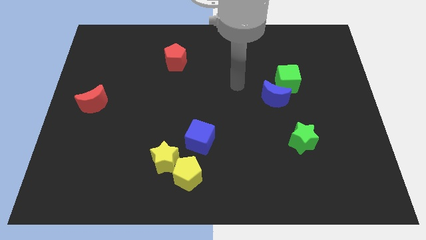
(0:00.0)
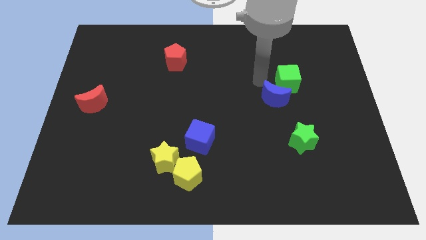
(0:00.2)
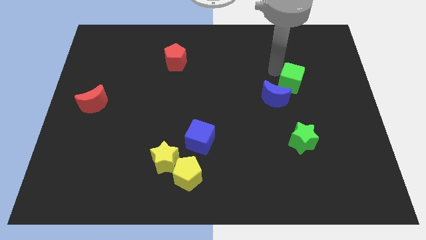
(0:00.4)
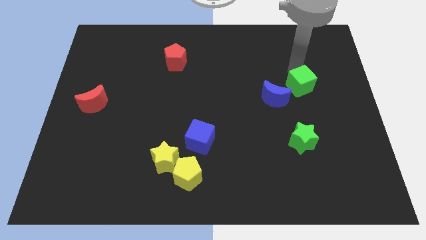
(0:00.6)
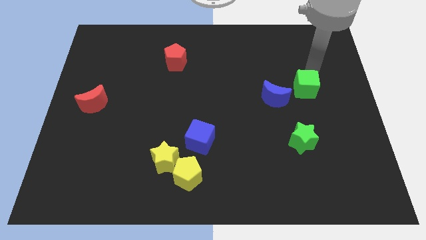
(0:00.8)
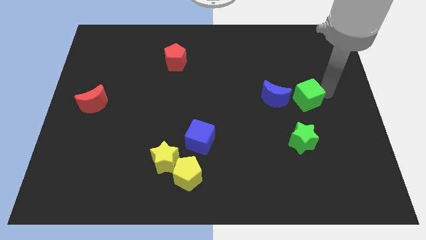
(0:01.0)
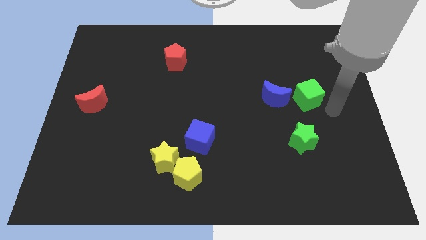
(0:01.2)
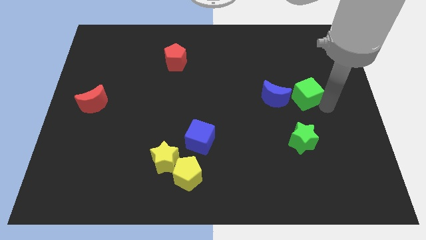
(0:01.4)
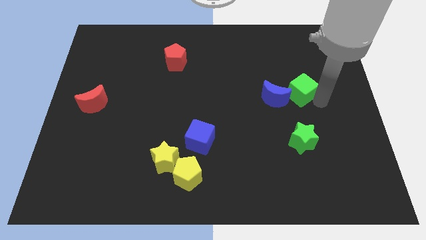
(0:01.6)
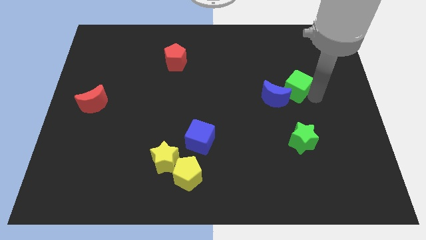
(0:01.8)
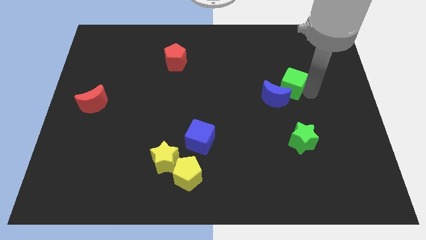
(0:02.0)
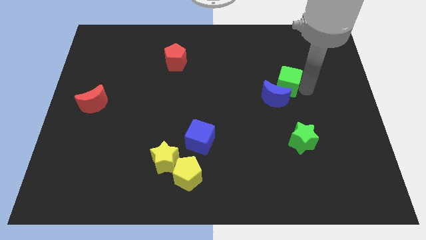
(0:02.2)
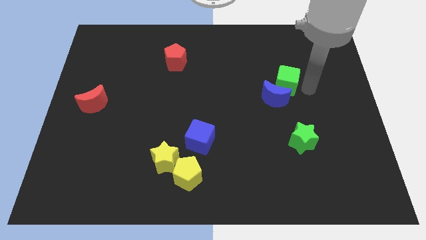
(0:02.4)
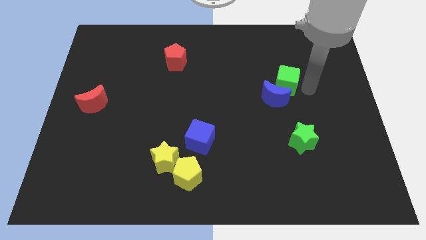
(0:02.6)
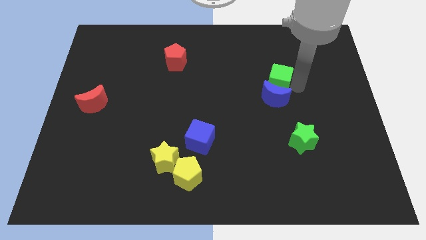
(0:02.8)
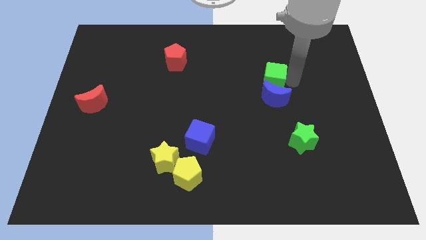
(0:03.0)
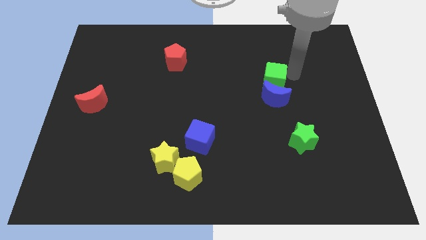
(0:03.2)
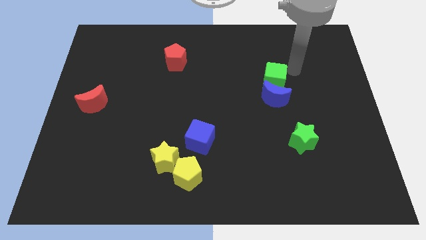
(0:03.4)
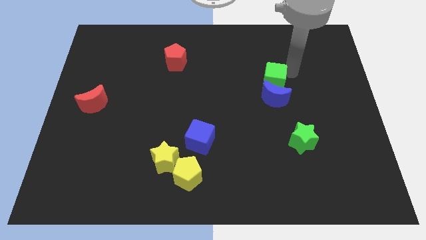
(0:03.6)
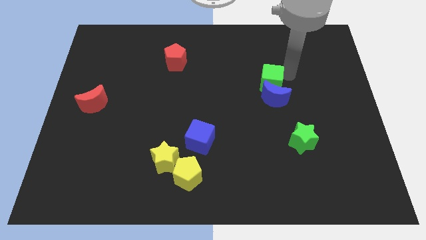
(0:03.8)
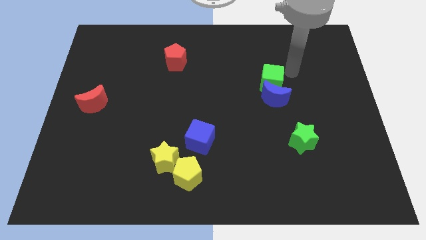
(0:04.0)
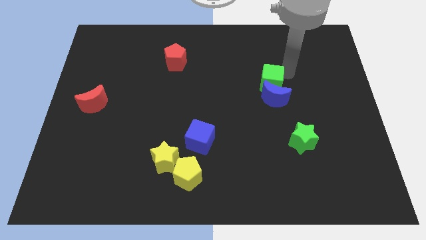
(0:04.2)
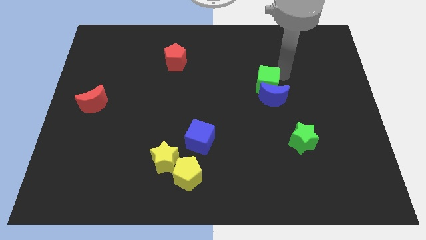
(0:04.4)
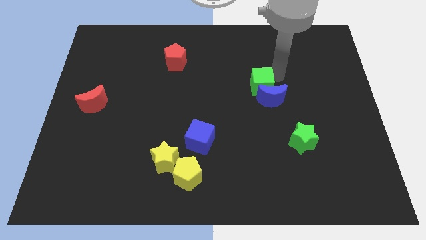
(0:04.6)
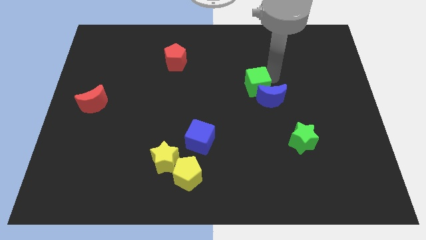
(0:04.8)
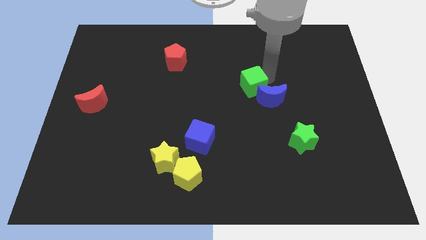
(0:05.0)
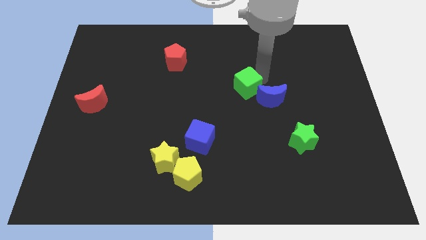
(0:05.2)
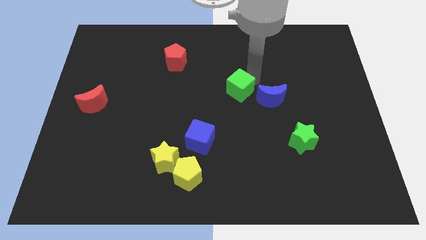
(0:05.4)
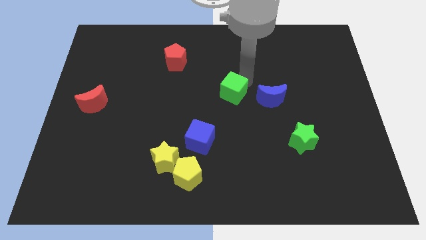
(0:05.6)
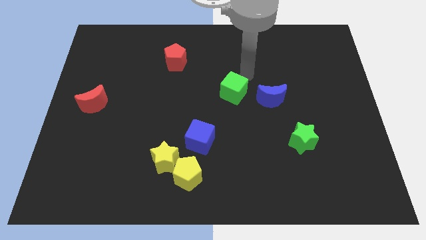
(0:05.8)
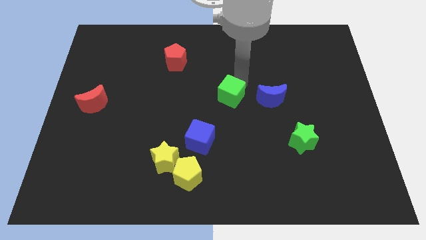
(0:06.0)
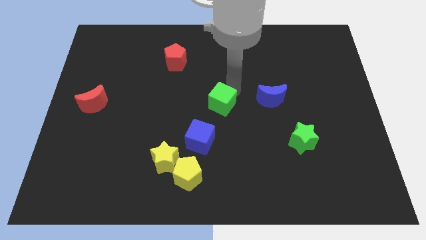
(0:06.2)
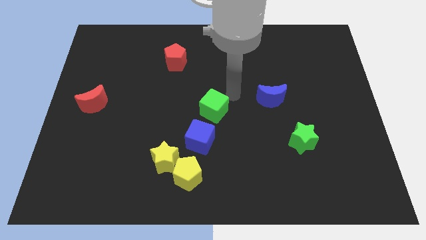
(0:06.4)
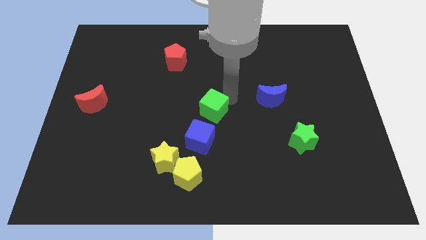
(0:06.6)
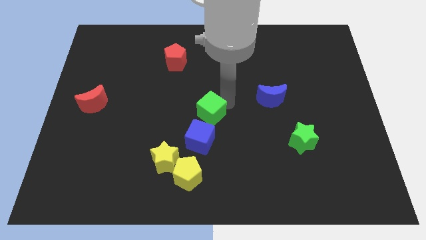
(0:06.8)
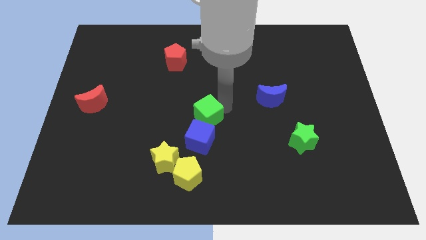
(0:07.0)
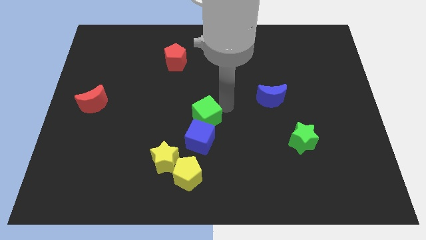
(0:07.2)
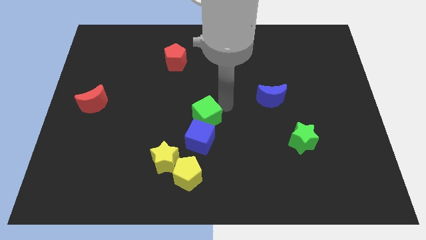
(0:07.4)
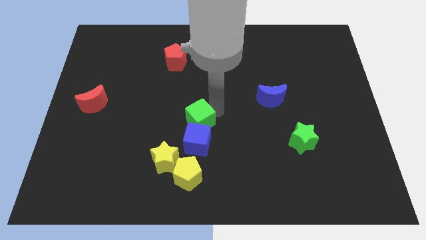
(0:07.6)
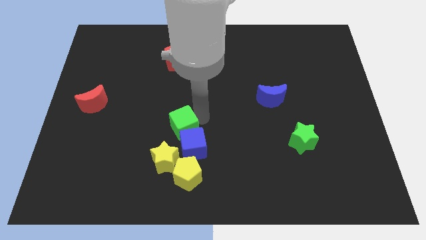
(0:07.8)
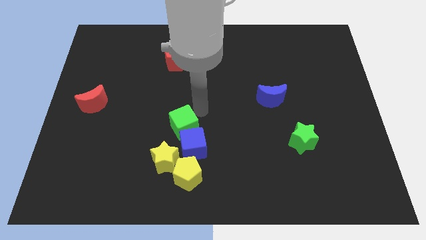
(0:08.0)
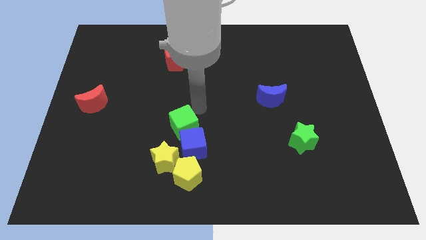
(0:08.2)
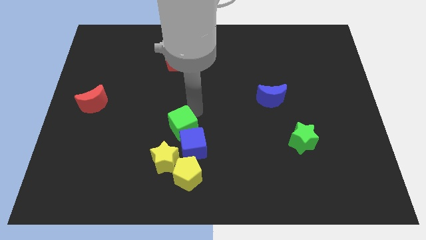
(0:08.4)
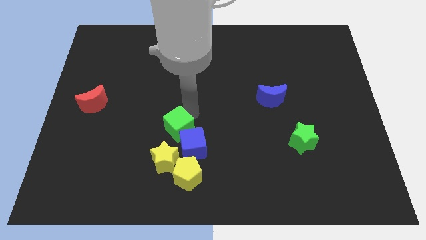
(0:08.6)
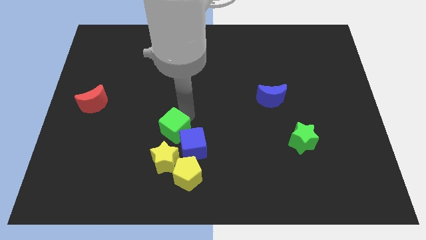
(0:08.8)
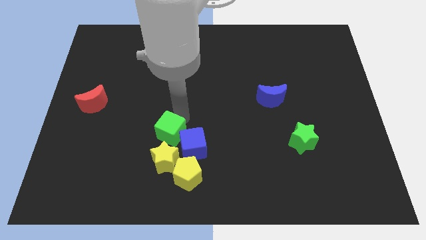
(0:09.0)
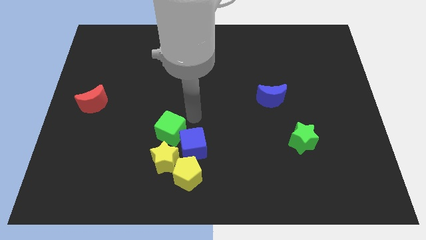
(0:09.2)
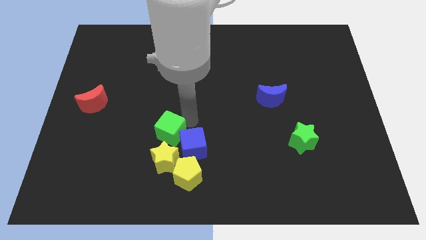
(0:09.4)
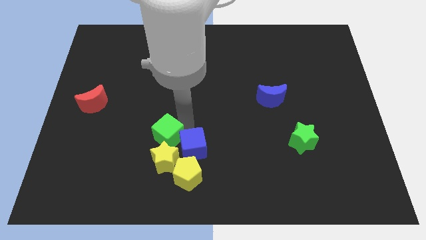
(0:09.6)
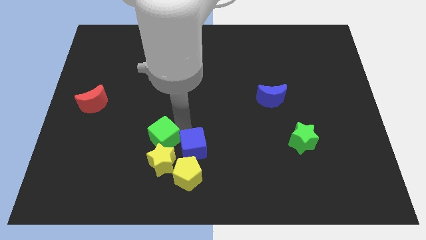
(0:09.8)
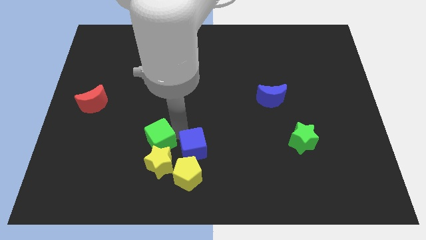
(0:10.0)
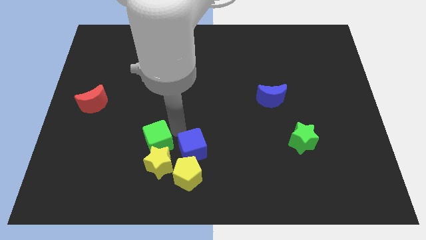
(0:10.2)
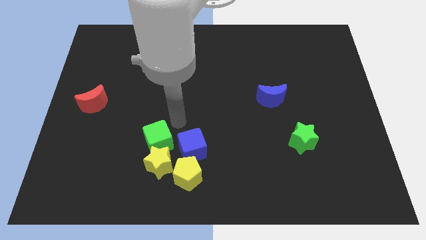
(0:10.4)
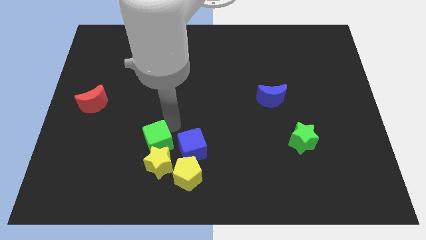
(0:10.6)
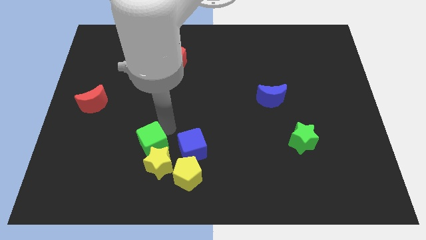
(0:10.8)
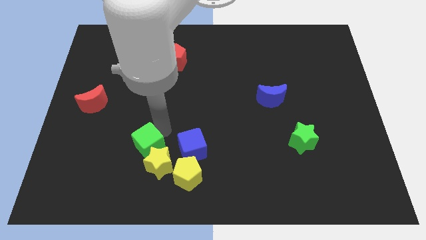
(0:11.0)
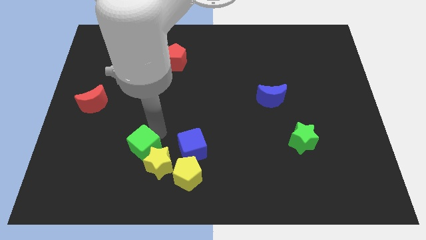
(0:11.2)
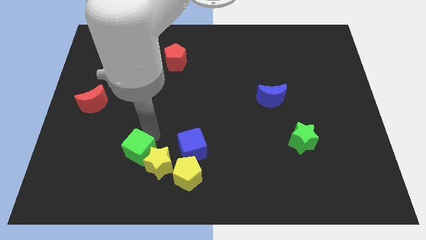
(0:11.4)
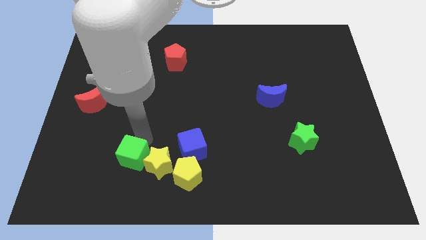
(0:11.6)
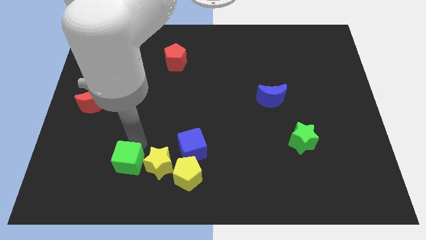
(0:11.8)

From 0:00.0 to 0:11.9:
put the green cube to the bottom left of the yellow star

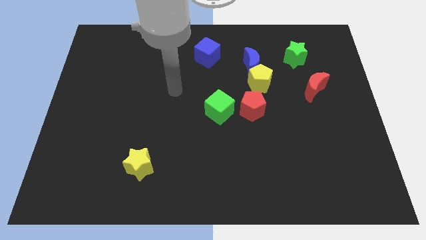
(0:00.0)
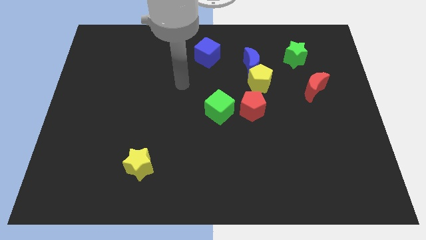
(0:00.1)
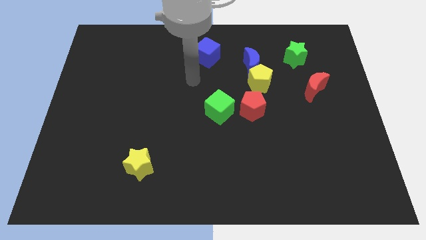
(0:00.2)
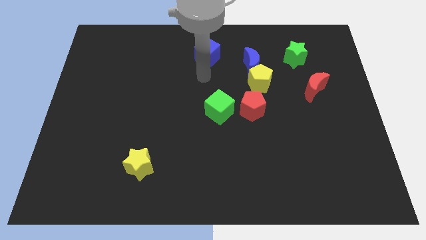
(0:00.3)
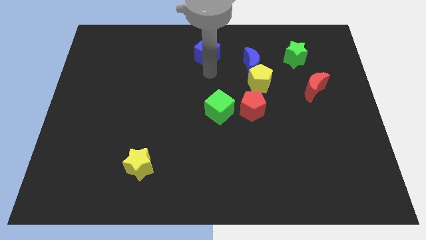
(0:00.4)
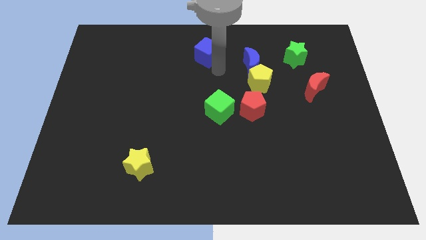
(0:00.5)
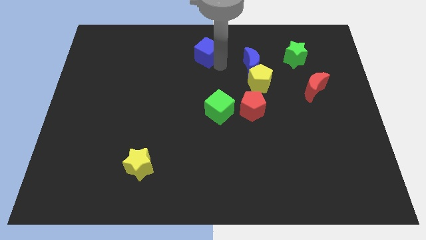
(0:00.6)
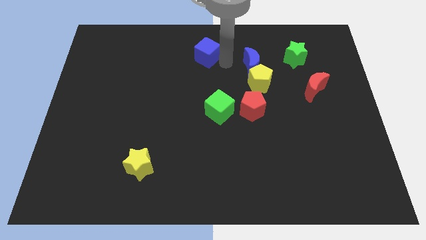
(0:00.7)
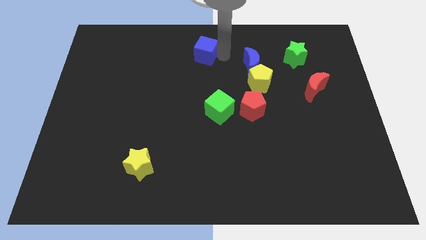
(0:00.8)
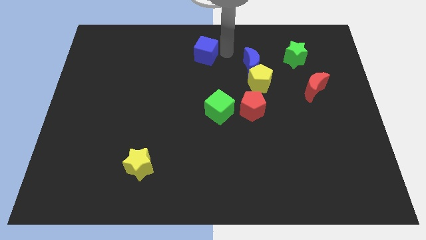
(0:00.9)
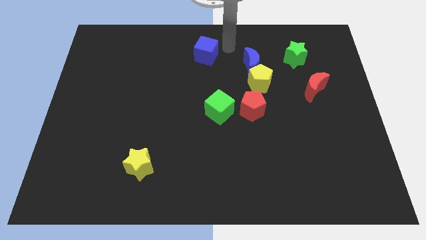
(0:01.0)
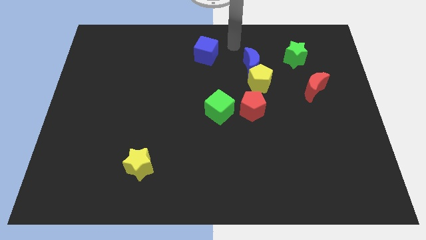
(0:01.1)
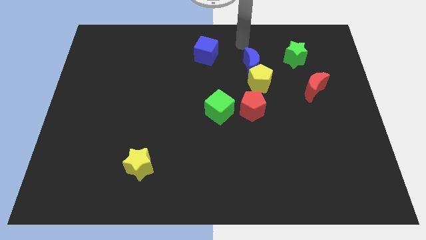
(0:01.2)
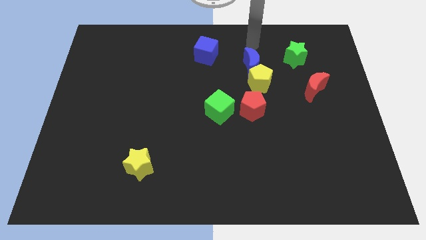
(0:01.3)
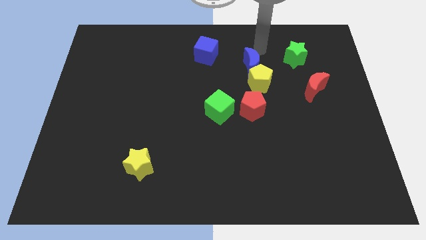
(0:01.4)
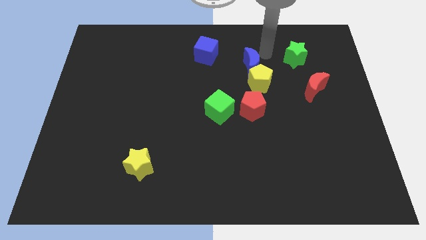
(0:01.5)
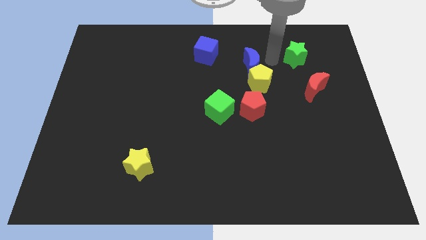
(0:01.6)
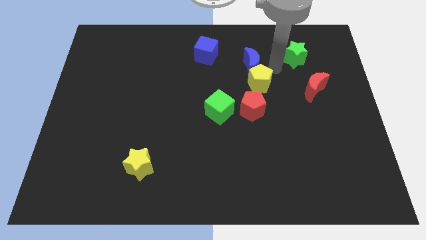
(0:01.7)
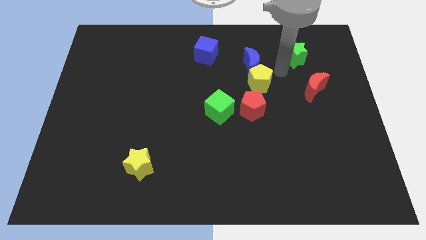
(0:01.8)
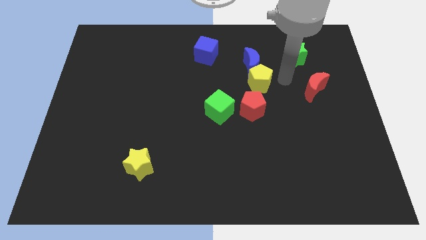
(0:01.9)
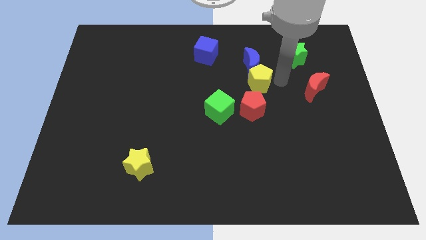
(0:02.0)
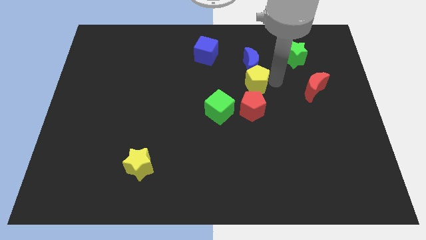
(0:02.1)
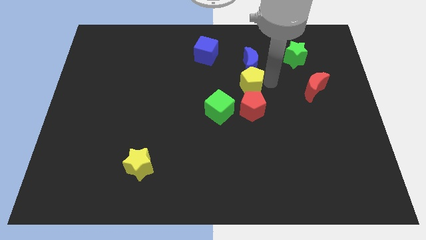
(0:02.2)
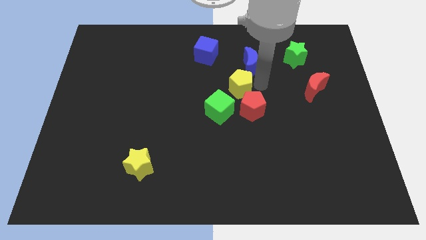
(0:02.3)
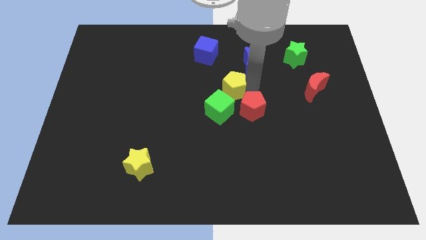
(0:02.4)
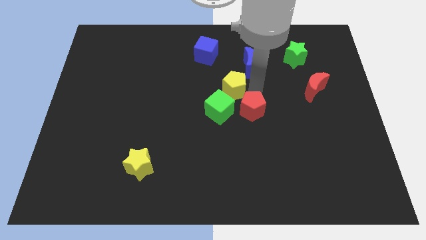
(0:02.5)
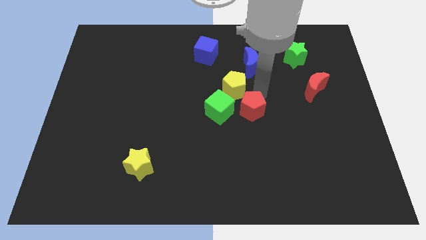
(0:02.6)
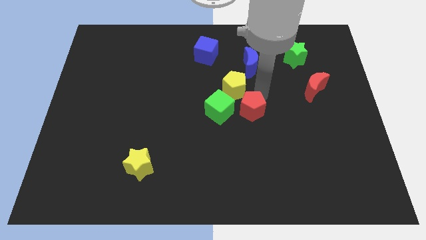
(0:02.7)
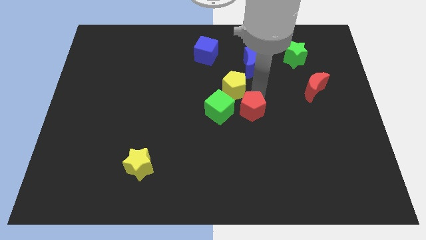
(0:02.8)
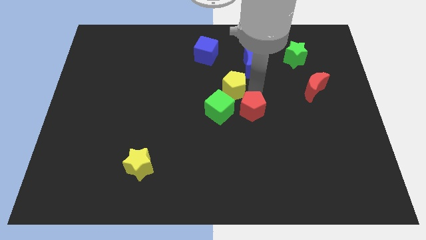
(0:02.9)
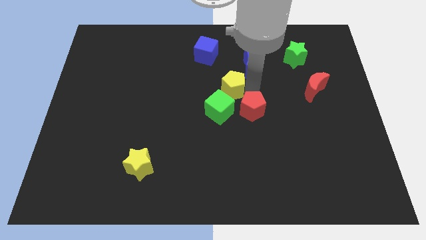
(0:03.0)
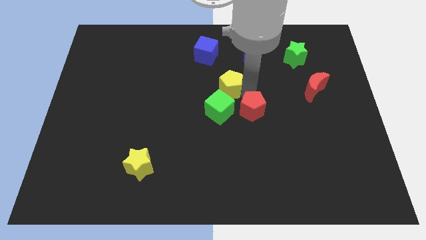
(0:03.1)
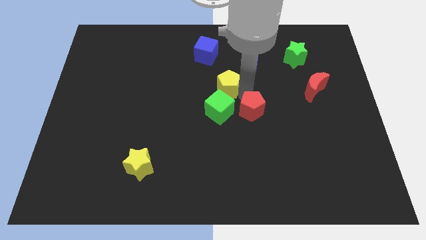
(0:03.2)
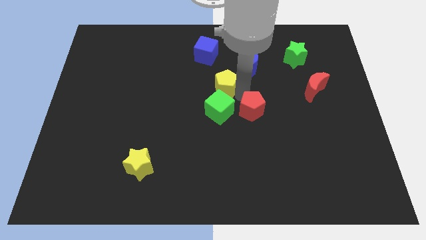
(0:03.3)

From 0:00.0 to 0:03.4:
put the yellow pentagon to the bottom of the blue cube
